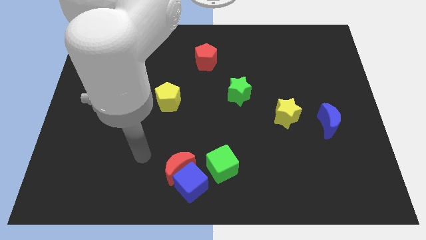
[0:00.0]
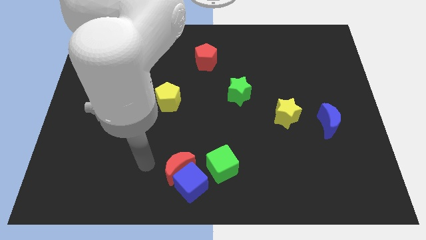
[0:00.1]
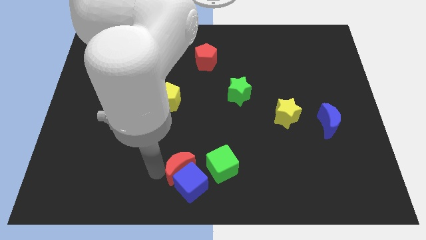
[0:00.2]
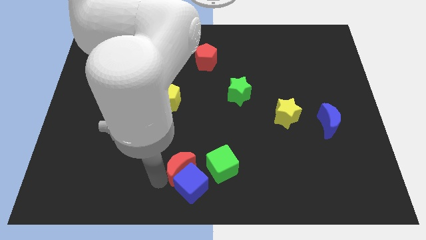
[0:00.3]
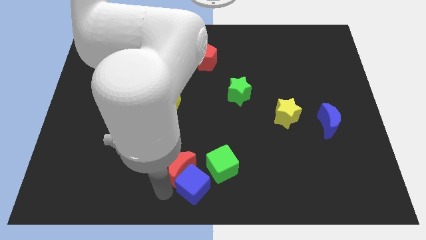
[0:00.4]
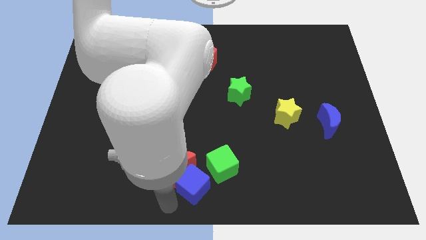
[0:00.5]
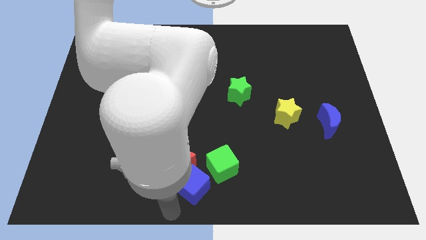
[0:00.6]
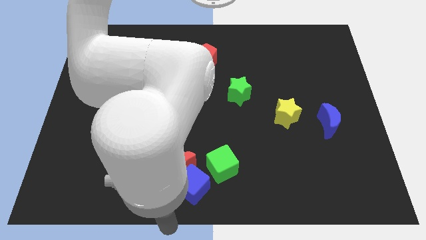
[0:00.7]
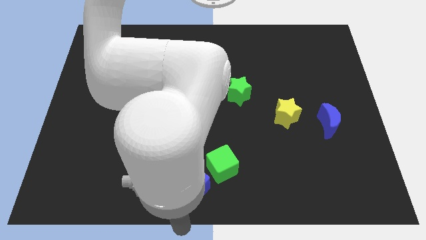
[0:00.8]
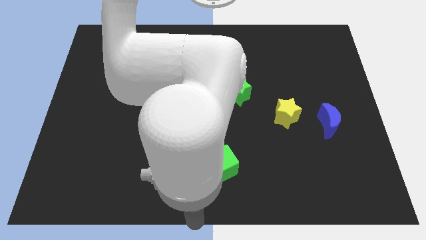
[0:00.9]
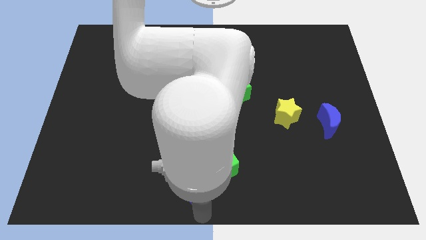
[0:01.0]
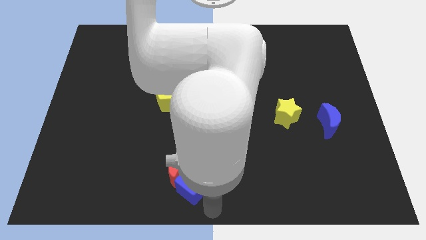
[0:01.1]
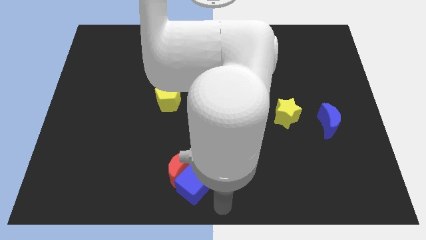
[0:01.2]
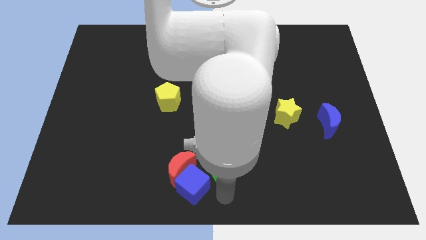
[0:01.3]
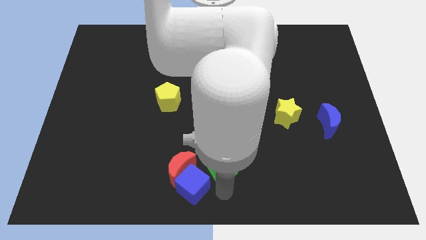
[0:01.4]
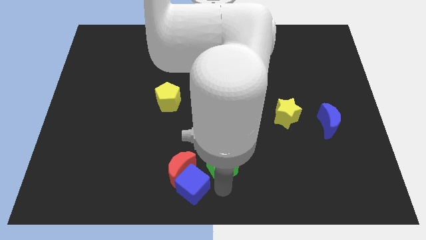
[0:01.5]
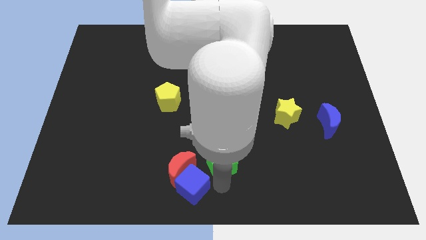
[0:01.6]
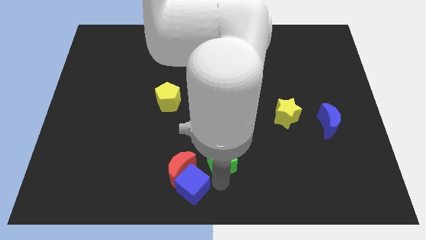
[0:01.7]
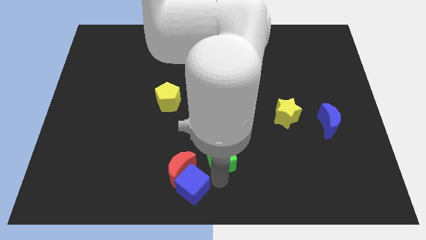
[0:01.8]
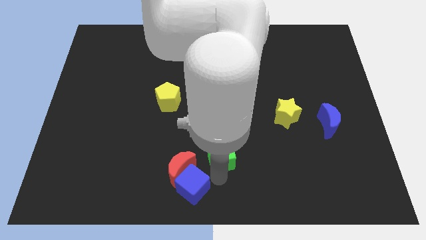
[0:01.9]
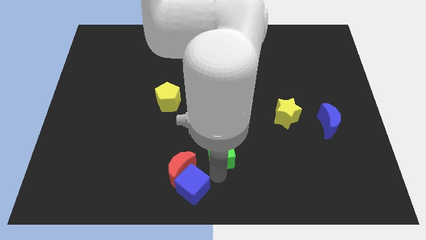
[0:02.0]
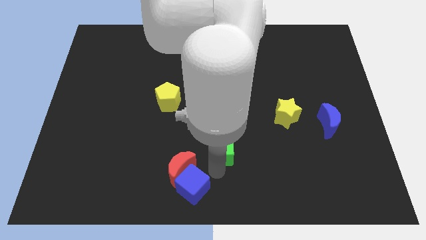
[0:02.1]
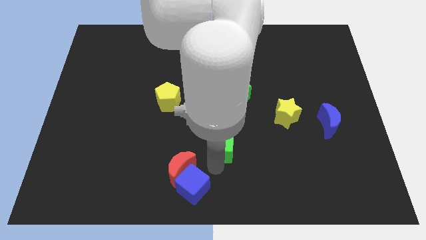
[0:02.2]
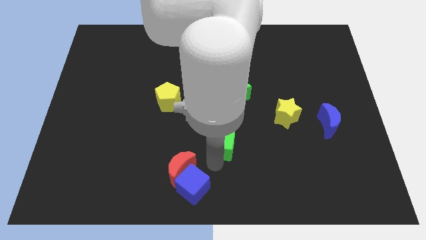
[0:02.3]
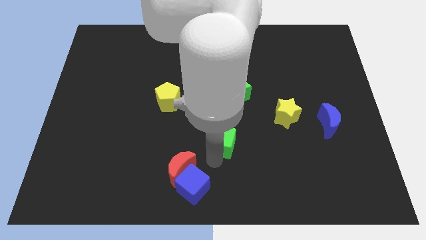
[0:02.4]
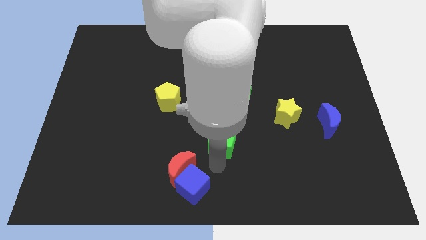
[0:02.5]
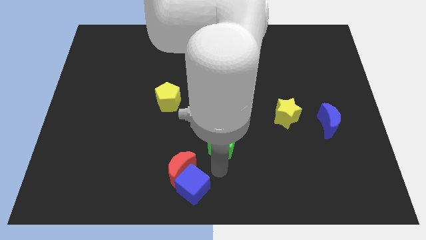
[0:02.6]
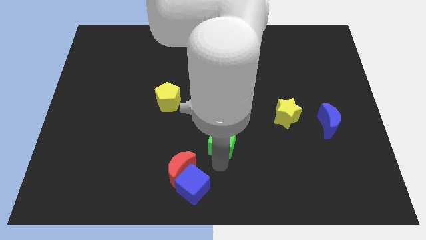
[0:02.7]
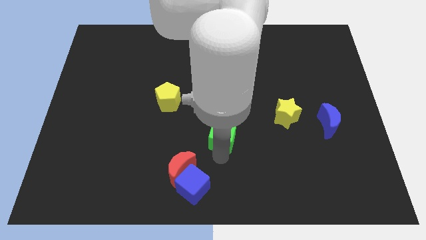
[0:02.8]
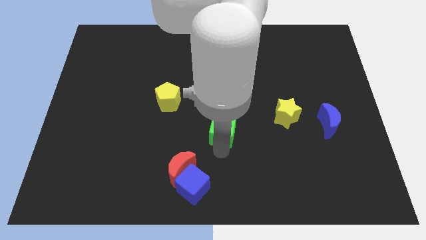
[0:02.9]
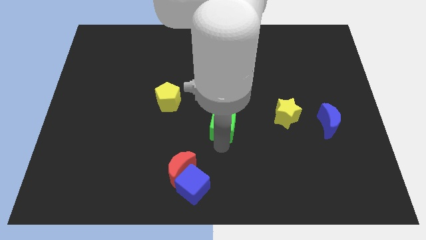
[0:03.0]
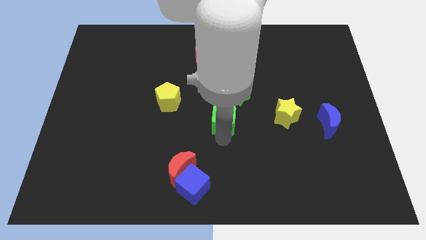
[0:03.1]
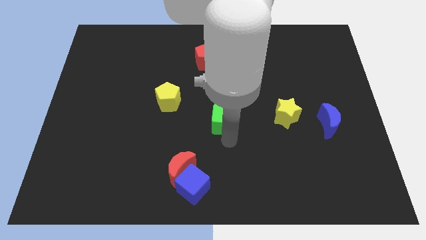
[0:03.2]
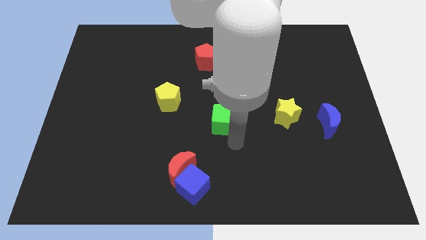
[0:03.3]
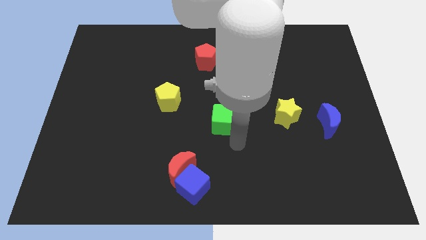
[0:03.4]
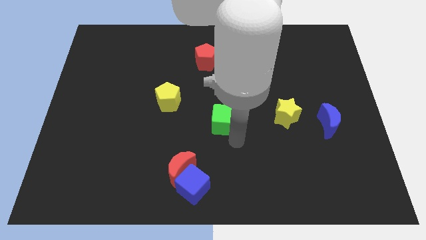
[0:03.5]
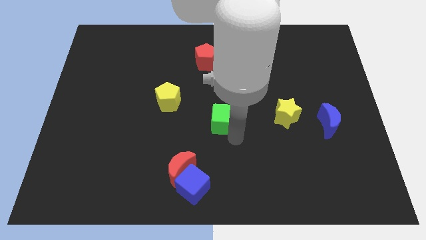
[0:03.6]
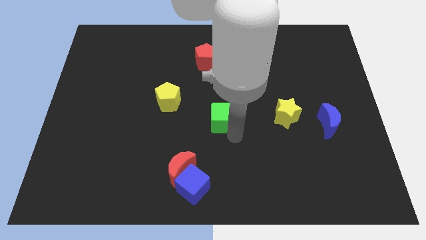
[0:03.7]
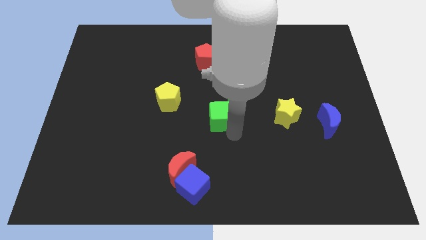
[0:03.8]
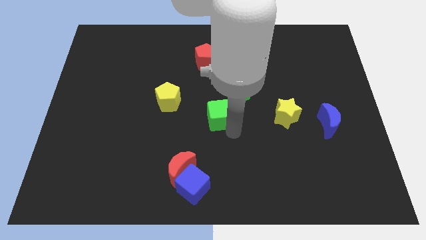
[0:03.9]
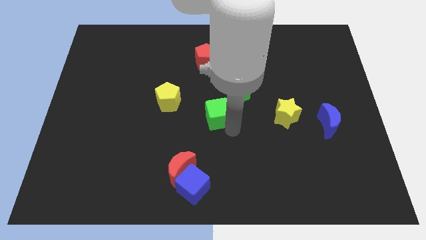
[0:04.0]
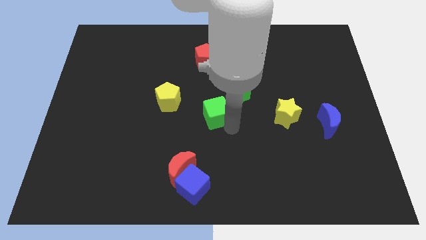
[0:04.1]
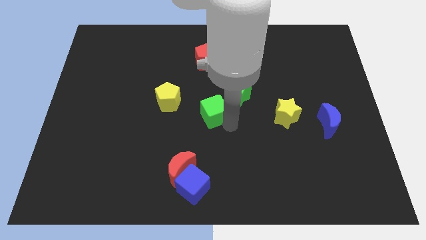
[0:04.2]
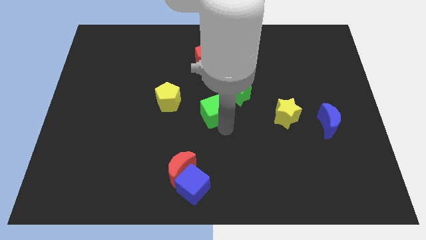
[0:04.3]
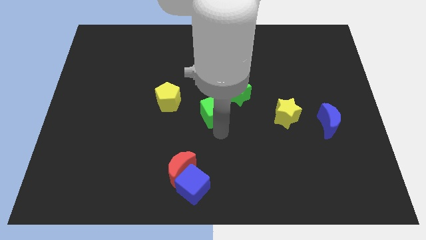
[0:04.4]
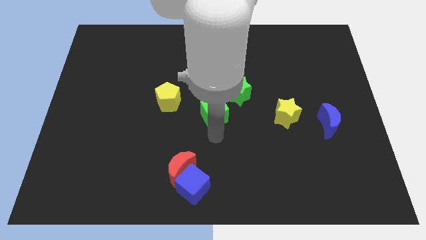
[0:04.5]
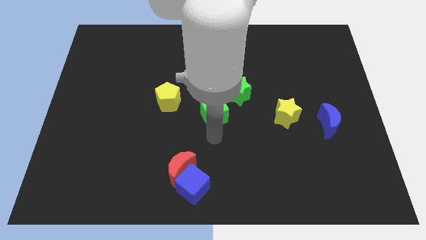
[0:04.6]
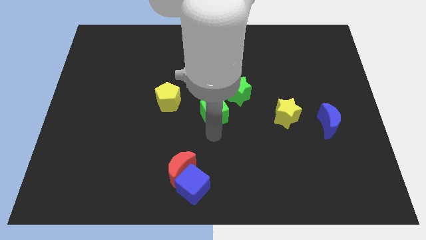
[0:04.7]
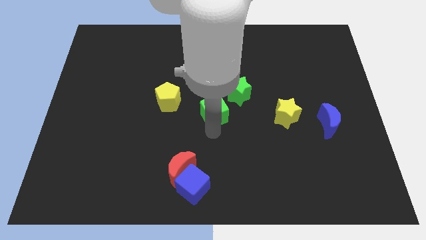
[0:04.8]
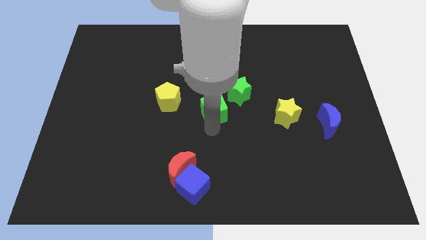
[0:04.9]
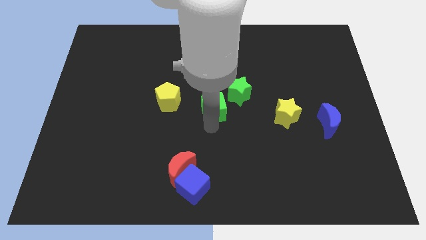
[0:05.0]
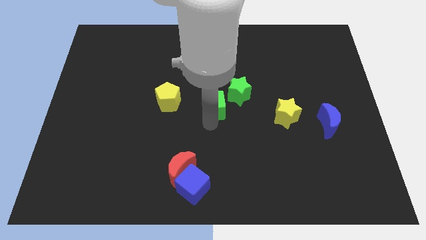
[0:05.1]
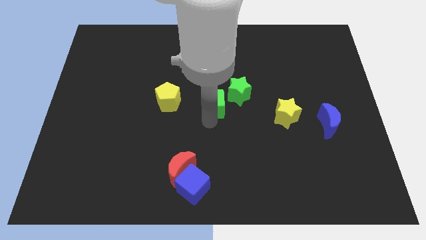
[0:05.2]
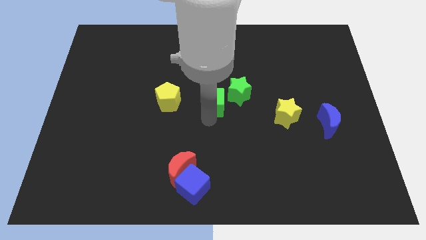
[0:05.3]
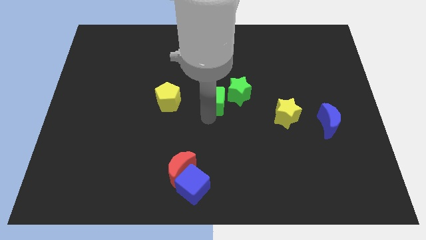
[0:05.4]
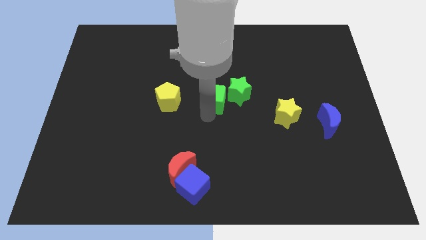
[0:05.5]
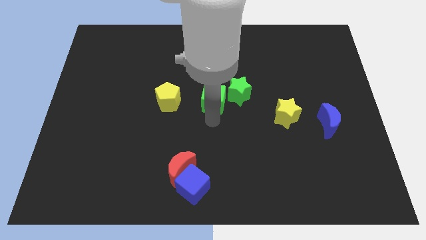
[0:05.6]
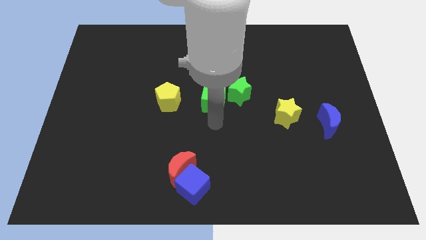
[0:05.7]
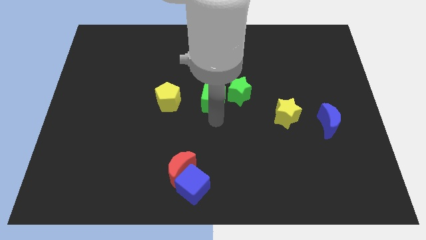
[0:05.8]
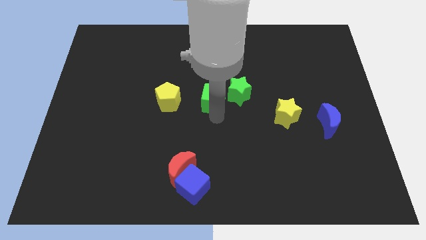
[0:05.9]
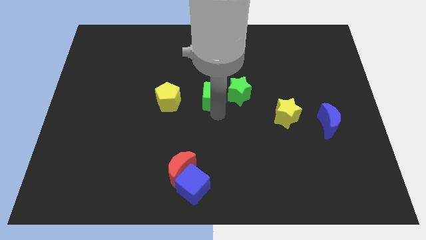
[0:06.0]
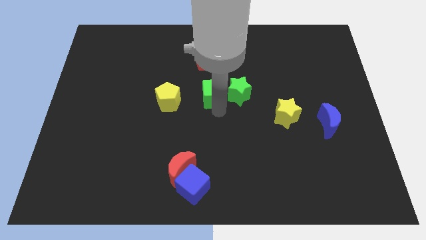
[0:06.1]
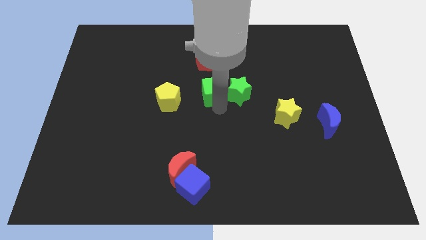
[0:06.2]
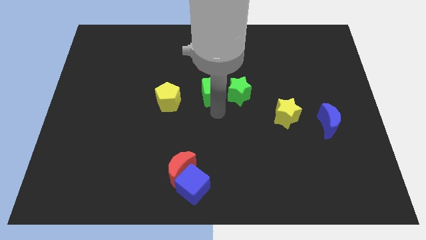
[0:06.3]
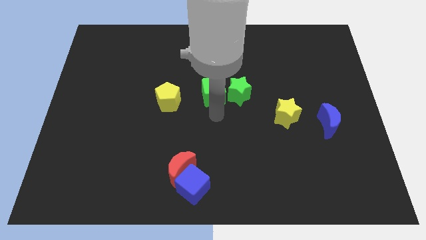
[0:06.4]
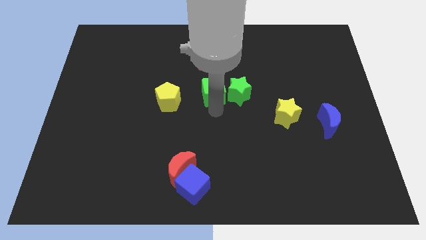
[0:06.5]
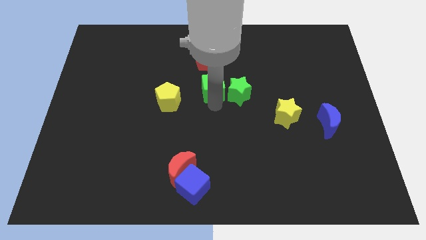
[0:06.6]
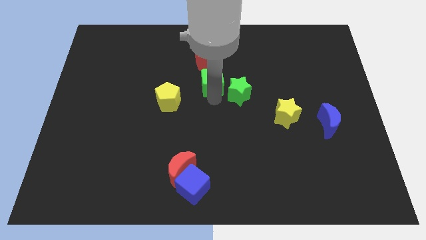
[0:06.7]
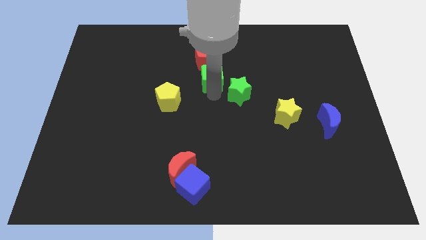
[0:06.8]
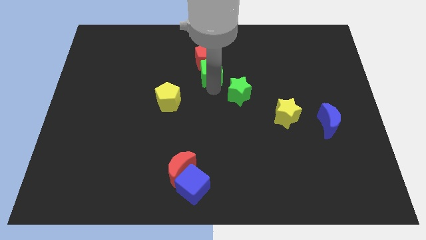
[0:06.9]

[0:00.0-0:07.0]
move the green cube next to the red pentagon
